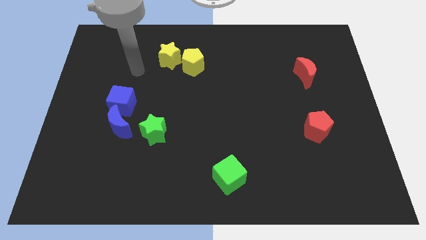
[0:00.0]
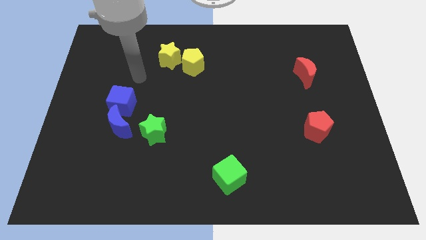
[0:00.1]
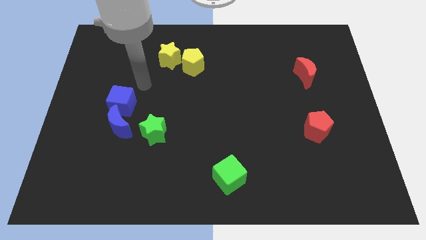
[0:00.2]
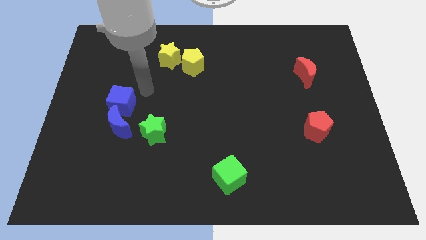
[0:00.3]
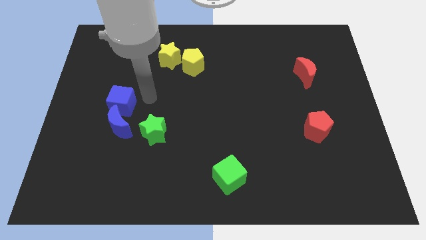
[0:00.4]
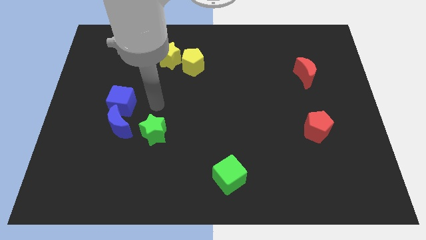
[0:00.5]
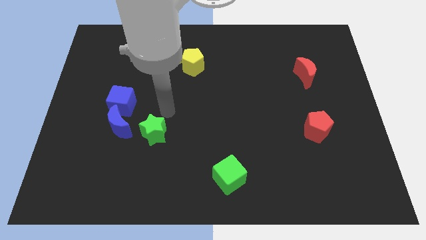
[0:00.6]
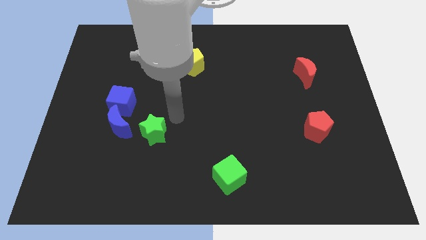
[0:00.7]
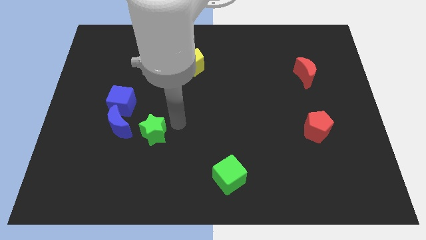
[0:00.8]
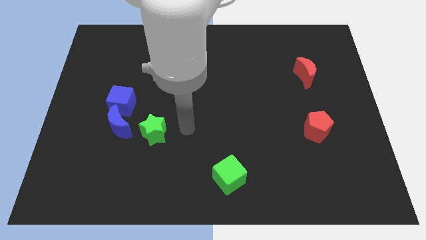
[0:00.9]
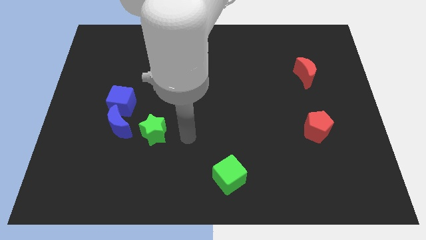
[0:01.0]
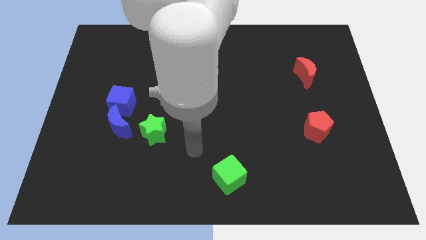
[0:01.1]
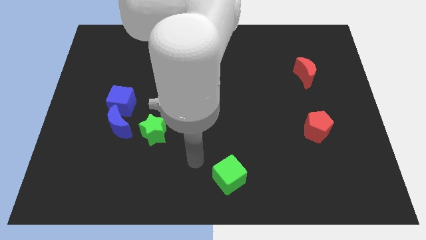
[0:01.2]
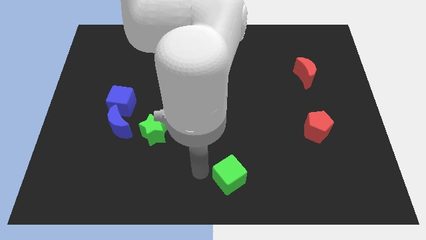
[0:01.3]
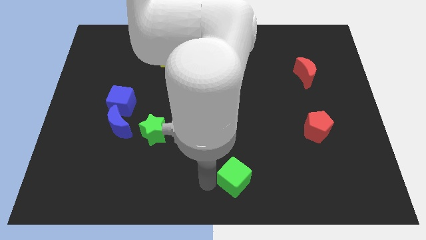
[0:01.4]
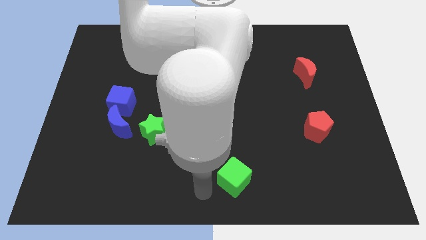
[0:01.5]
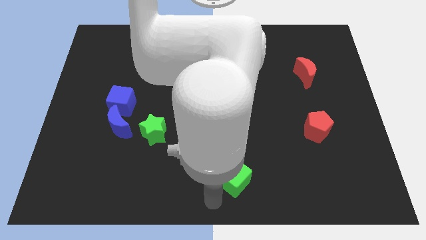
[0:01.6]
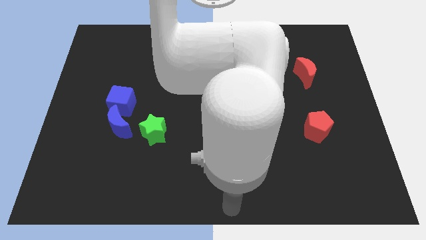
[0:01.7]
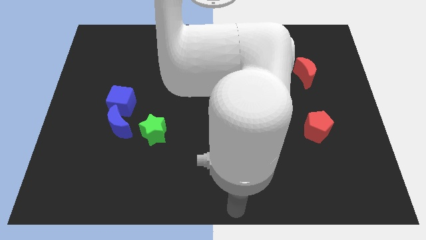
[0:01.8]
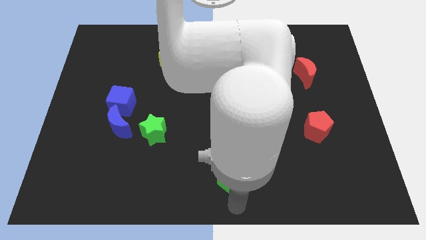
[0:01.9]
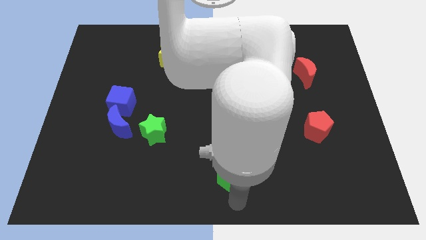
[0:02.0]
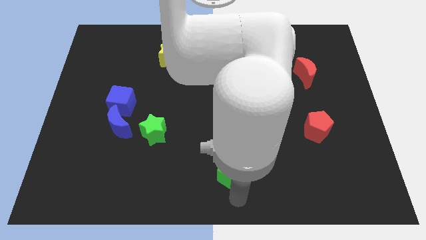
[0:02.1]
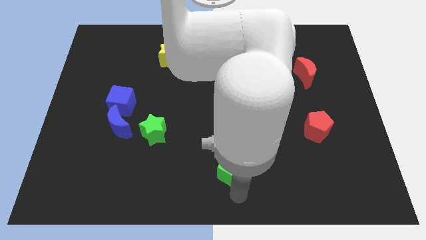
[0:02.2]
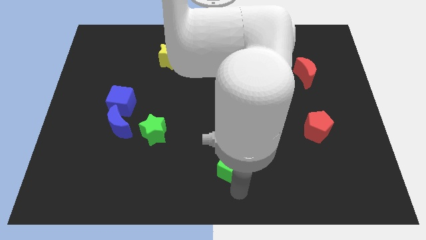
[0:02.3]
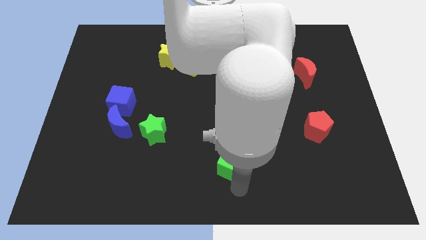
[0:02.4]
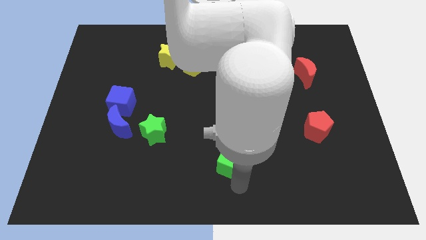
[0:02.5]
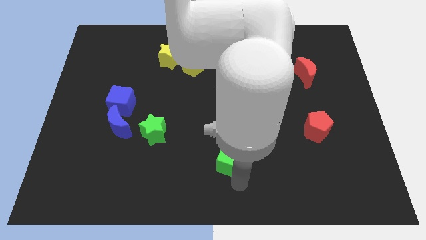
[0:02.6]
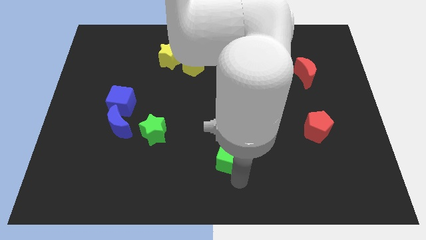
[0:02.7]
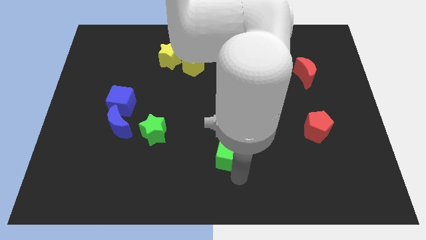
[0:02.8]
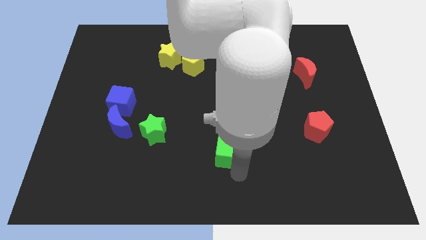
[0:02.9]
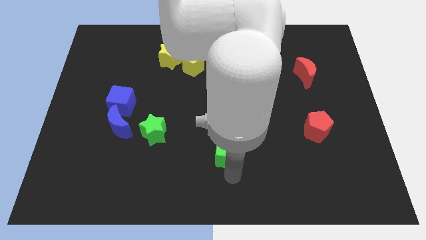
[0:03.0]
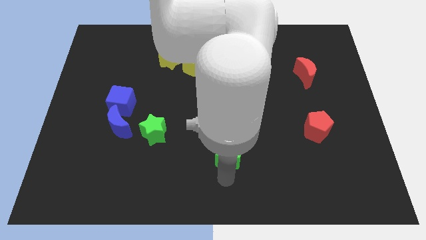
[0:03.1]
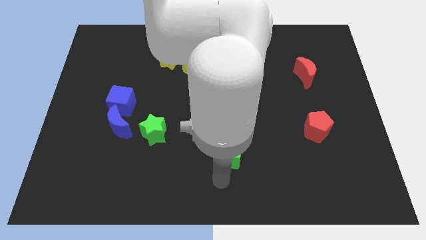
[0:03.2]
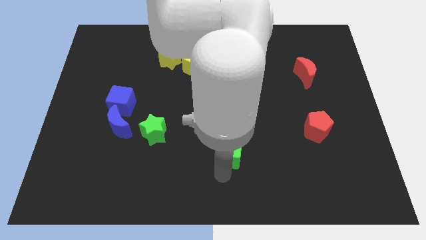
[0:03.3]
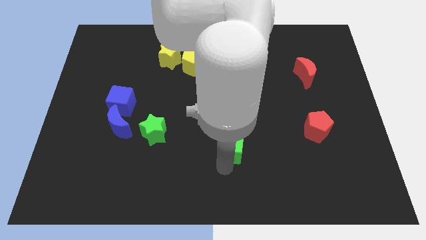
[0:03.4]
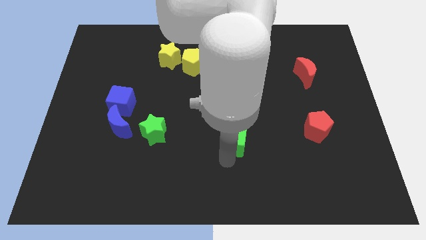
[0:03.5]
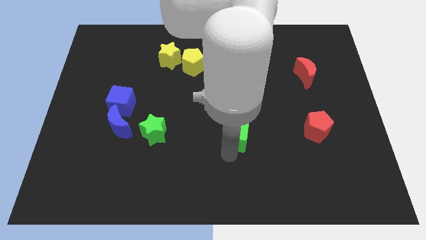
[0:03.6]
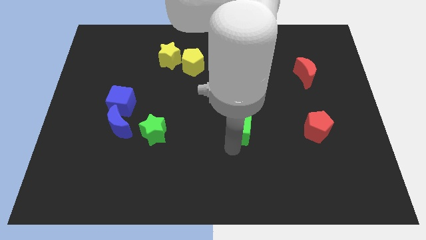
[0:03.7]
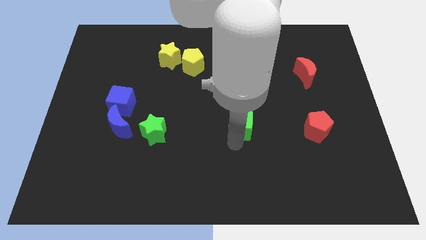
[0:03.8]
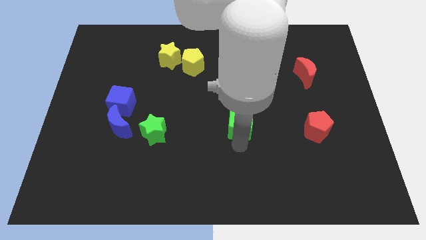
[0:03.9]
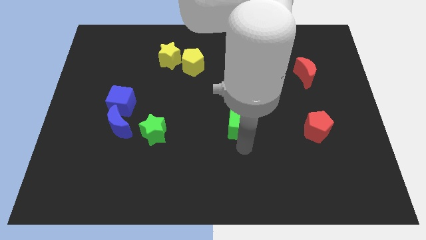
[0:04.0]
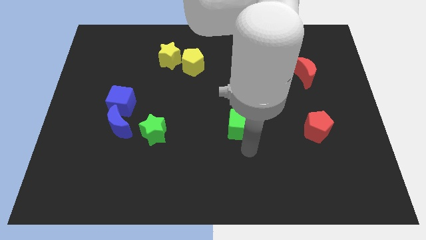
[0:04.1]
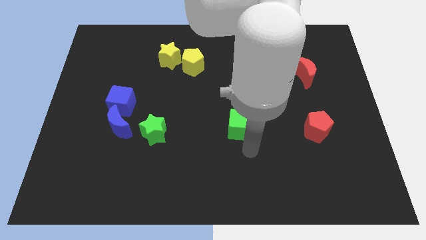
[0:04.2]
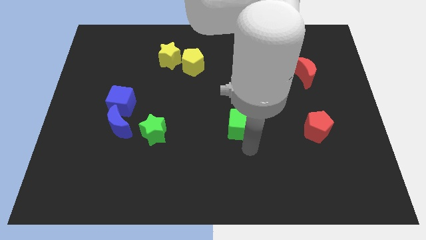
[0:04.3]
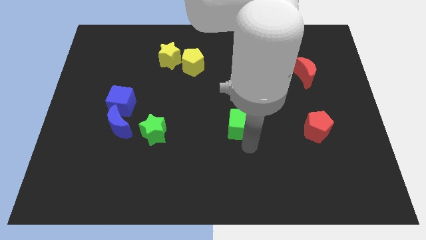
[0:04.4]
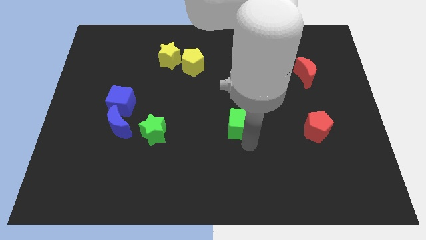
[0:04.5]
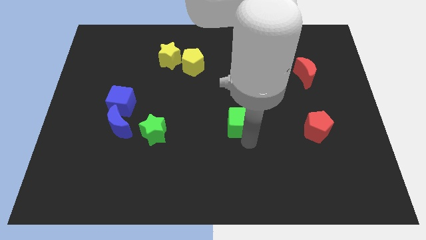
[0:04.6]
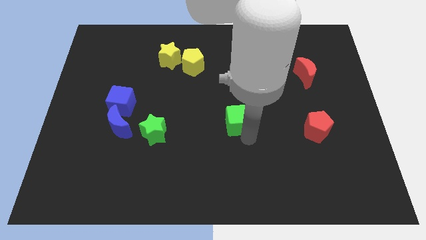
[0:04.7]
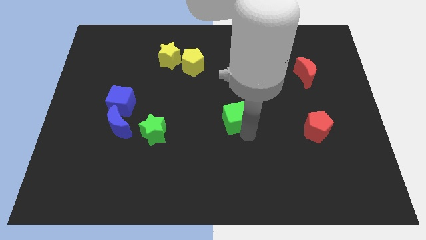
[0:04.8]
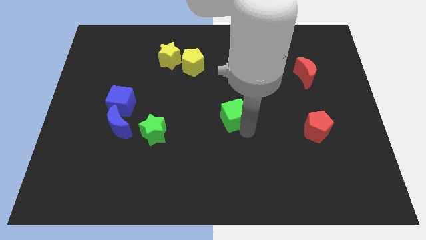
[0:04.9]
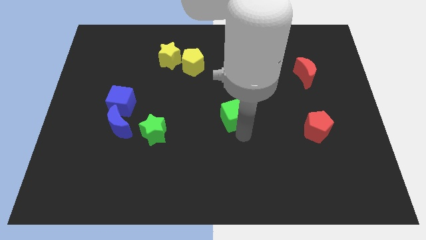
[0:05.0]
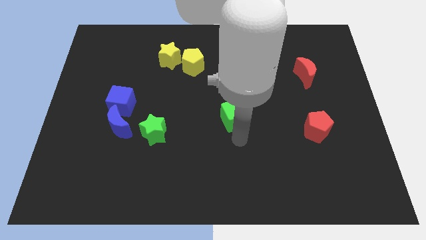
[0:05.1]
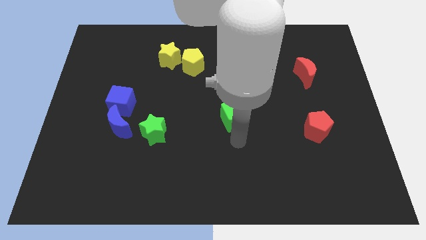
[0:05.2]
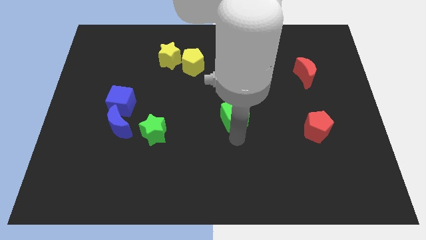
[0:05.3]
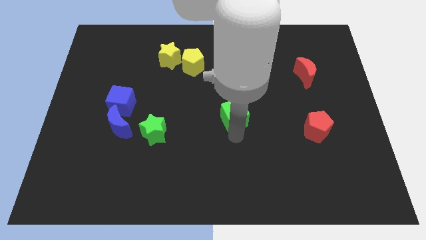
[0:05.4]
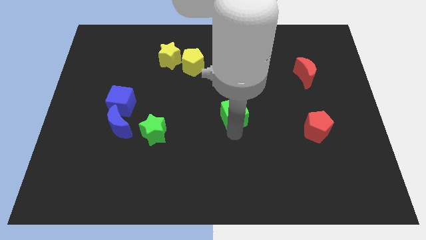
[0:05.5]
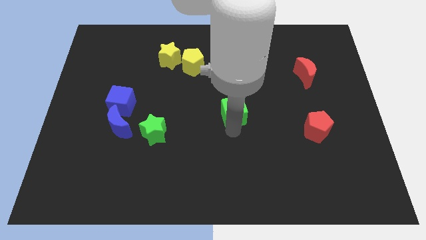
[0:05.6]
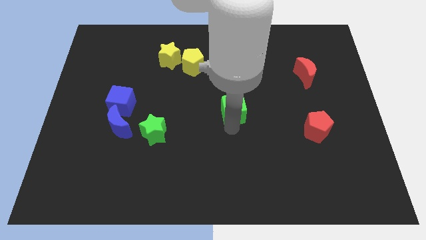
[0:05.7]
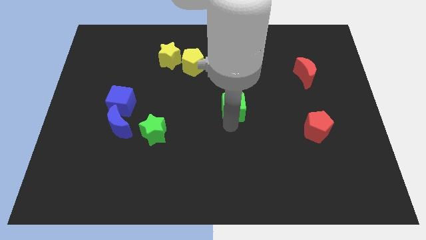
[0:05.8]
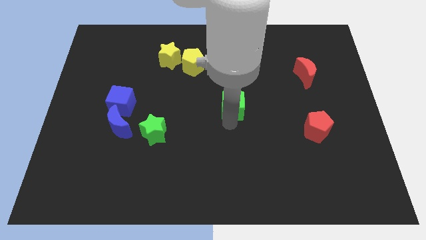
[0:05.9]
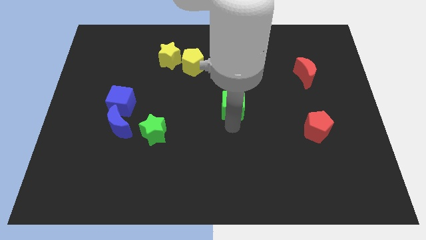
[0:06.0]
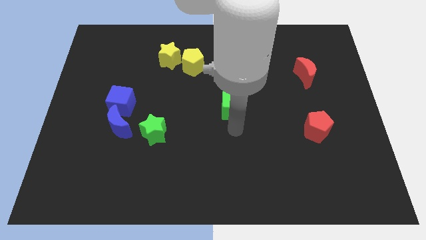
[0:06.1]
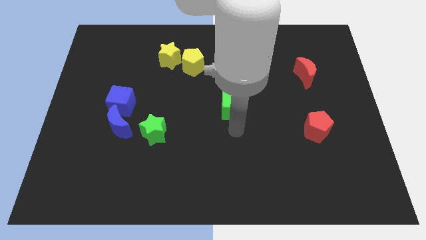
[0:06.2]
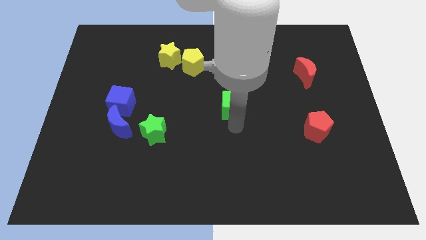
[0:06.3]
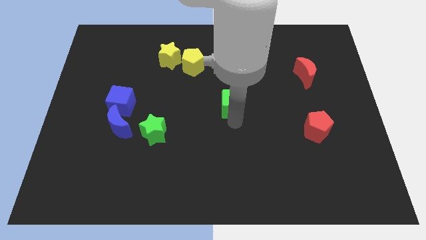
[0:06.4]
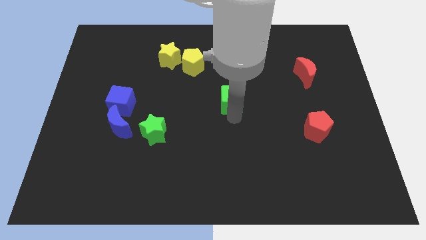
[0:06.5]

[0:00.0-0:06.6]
move the green cube upwards

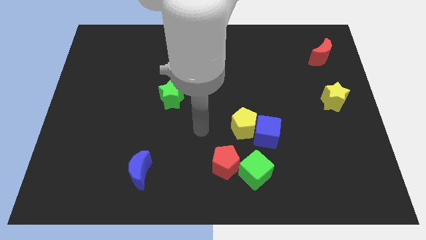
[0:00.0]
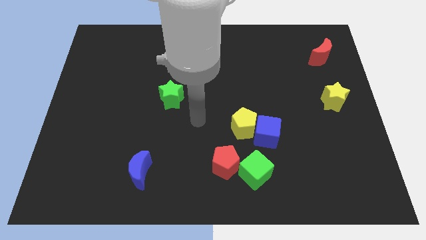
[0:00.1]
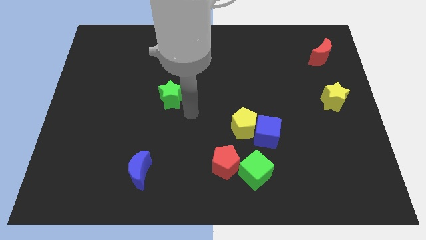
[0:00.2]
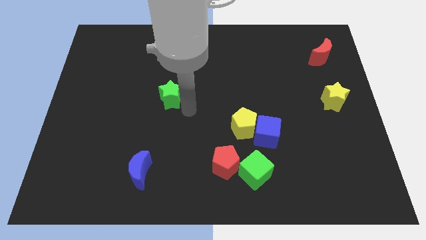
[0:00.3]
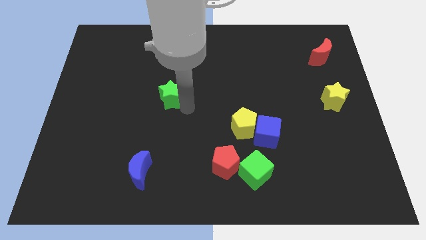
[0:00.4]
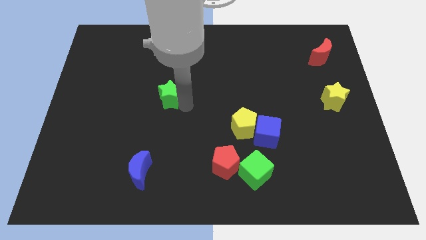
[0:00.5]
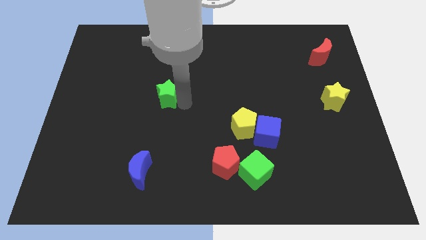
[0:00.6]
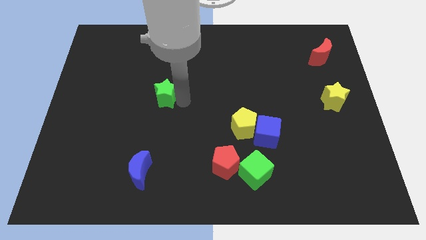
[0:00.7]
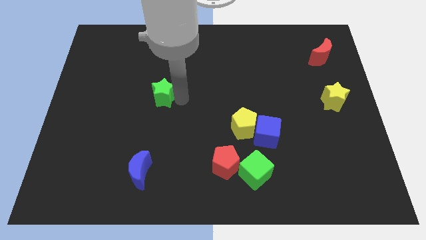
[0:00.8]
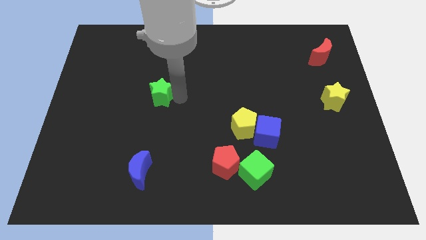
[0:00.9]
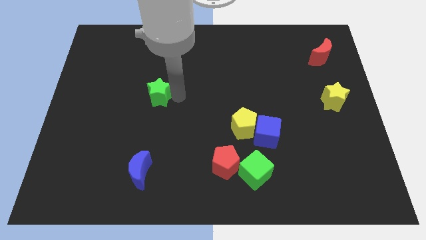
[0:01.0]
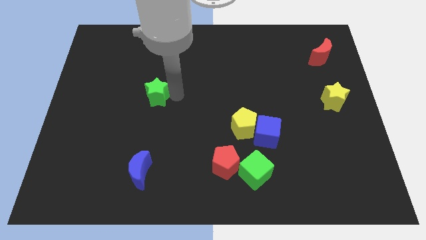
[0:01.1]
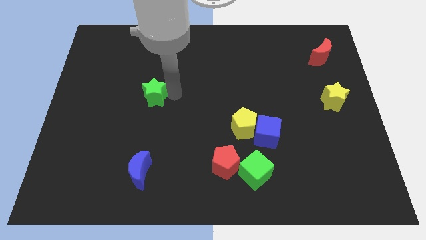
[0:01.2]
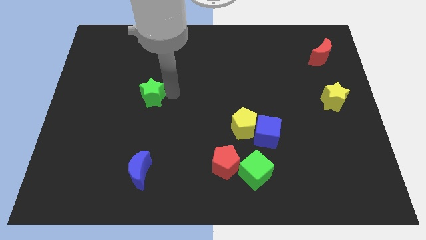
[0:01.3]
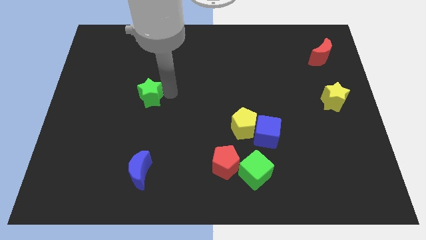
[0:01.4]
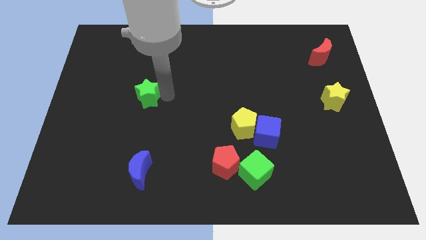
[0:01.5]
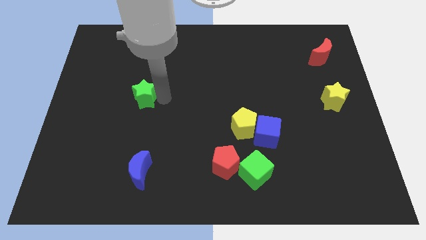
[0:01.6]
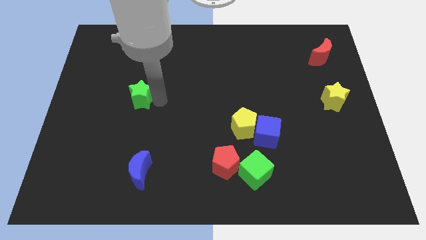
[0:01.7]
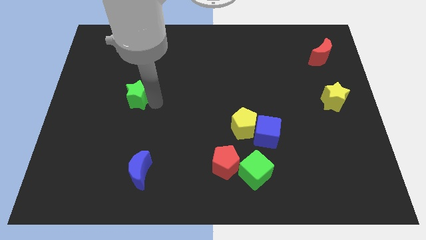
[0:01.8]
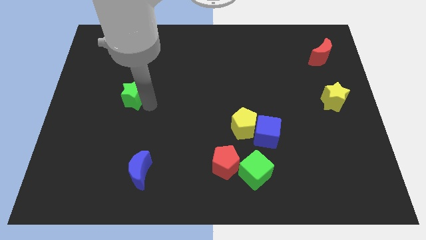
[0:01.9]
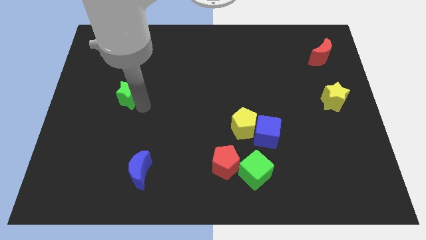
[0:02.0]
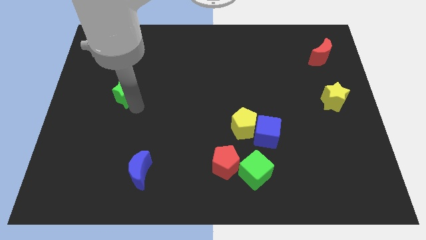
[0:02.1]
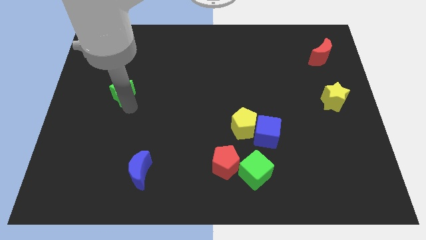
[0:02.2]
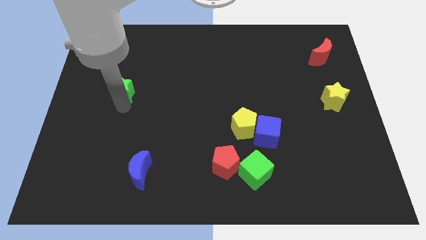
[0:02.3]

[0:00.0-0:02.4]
slide the green star diagonally up and to the left a little
